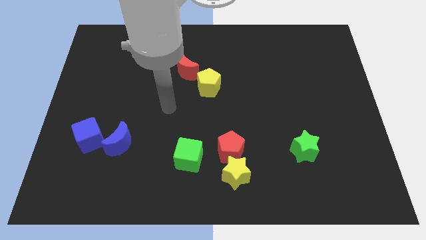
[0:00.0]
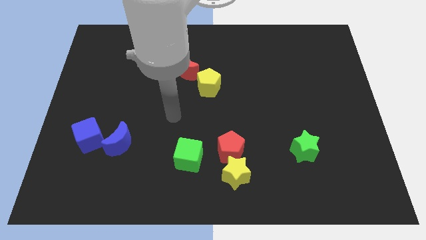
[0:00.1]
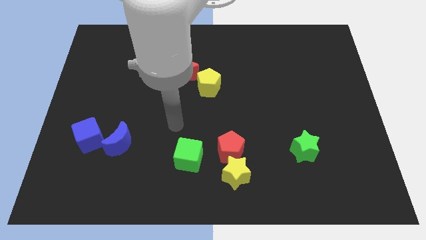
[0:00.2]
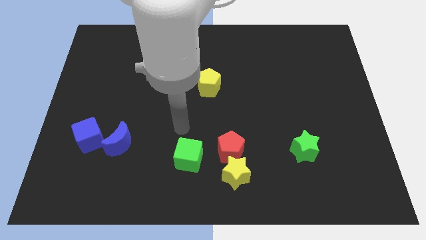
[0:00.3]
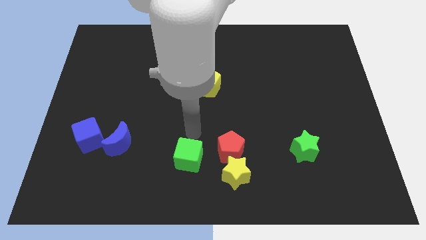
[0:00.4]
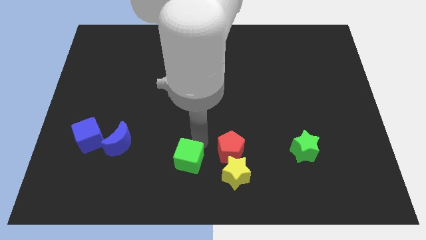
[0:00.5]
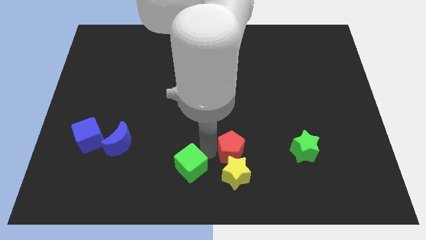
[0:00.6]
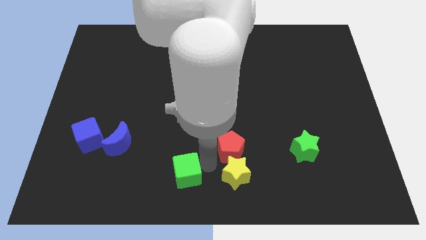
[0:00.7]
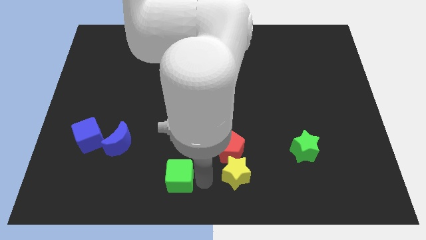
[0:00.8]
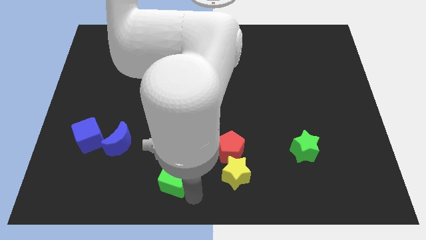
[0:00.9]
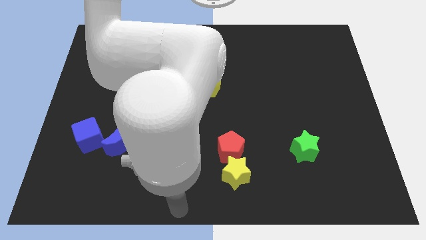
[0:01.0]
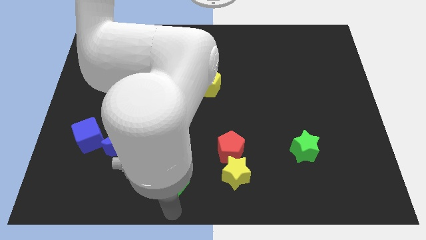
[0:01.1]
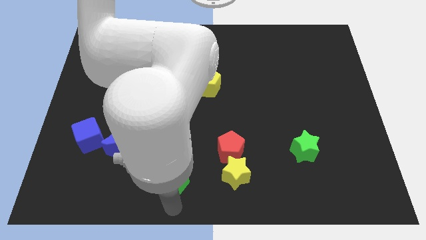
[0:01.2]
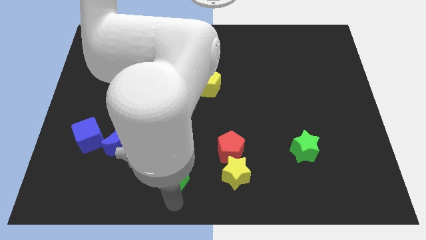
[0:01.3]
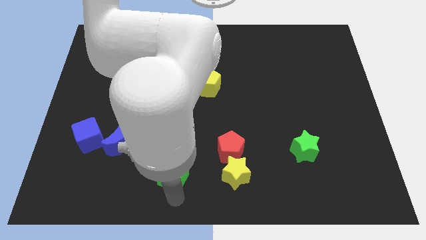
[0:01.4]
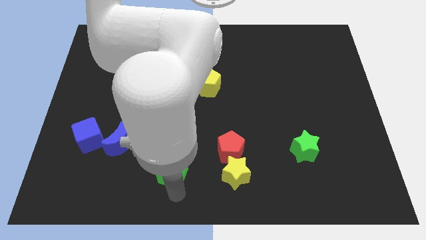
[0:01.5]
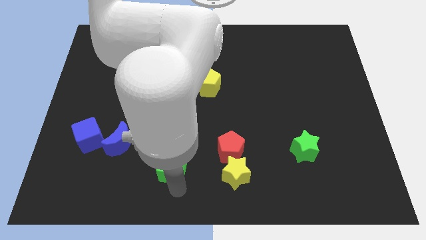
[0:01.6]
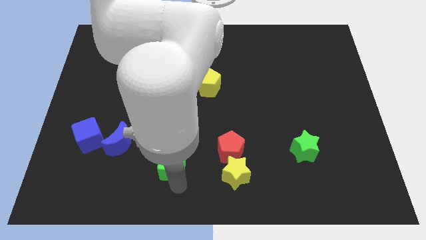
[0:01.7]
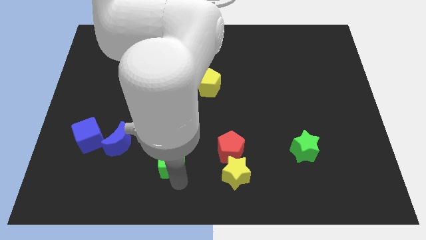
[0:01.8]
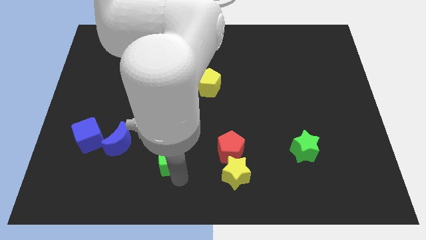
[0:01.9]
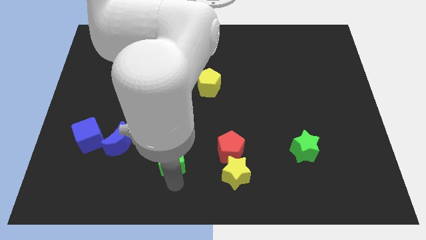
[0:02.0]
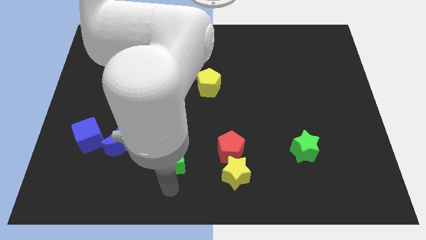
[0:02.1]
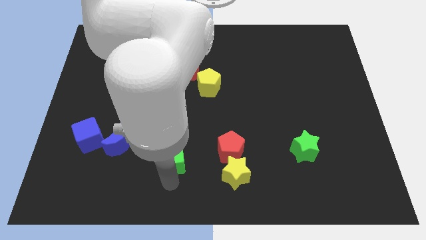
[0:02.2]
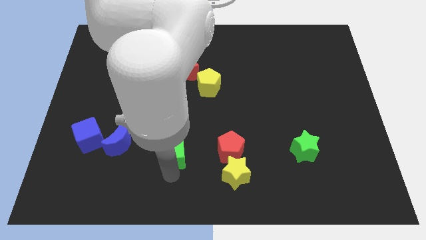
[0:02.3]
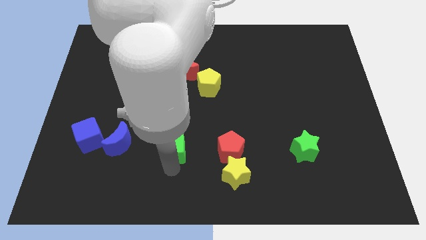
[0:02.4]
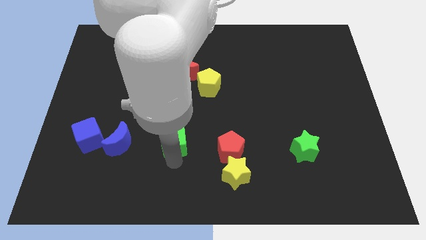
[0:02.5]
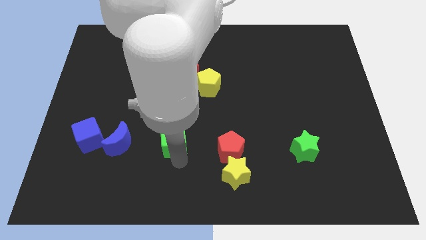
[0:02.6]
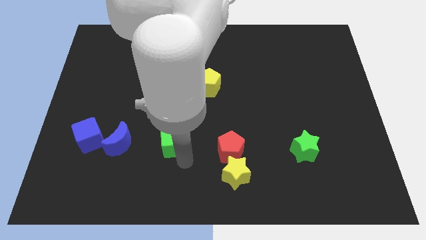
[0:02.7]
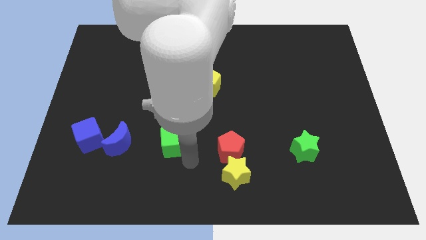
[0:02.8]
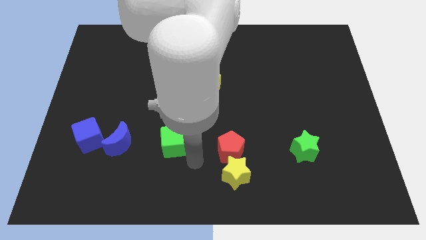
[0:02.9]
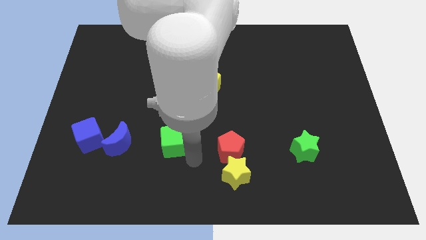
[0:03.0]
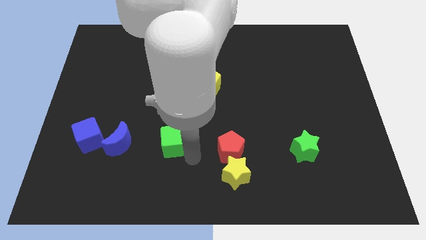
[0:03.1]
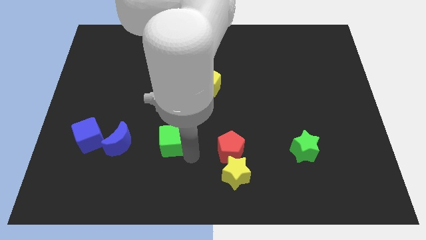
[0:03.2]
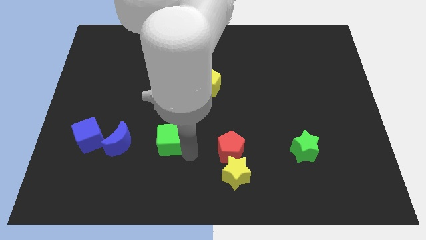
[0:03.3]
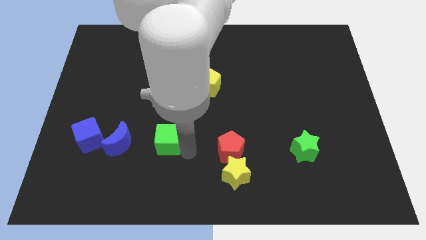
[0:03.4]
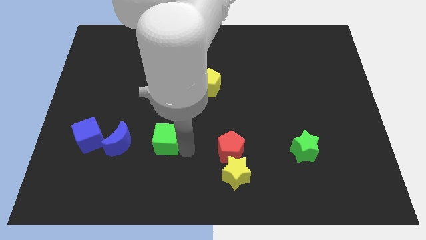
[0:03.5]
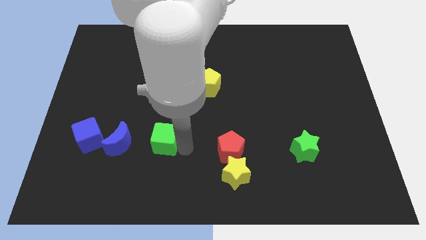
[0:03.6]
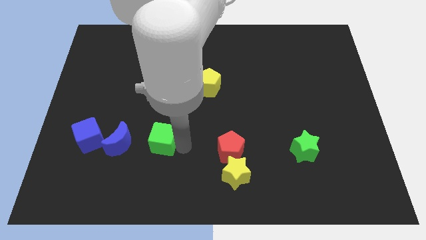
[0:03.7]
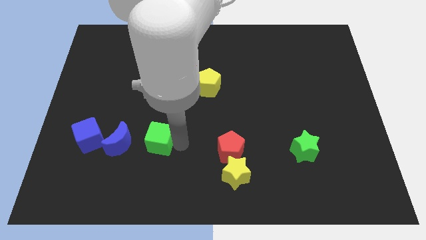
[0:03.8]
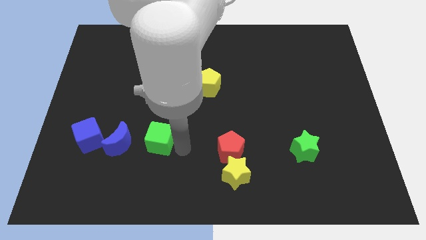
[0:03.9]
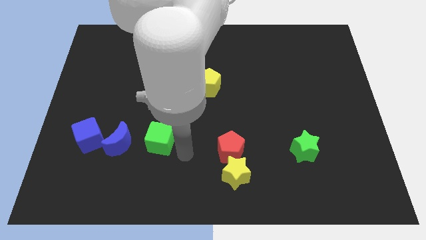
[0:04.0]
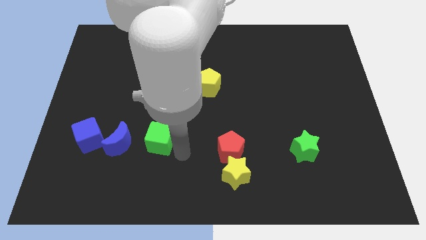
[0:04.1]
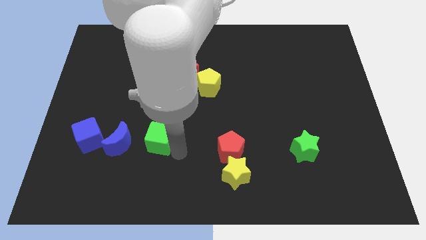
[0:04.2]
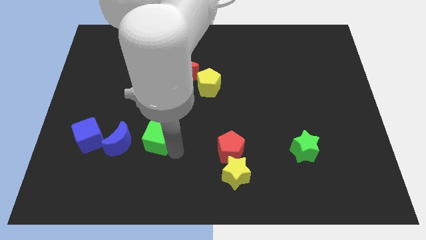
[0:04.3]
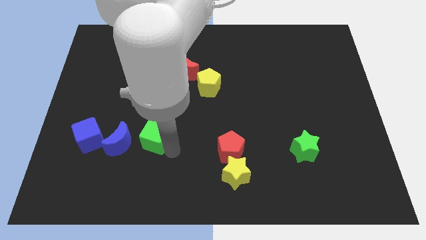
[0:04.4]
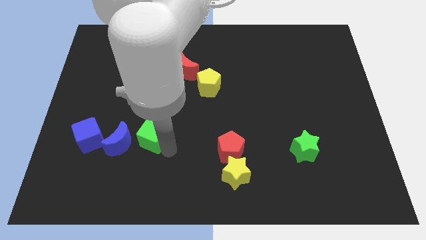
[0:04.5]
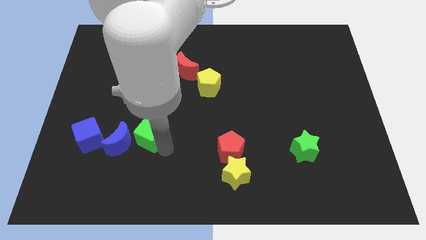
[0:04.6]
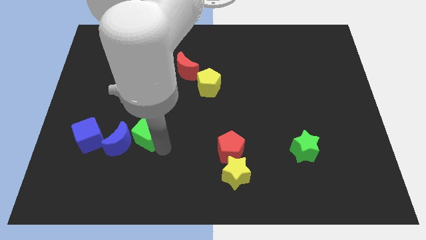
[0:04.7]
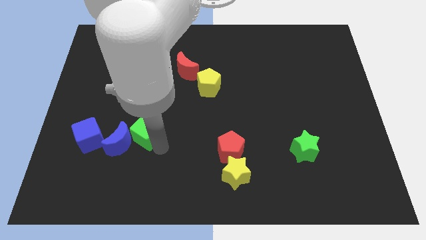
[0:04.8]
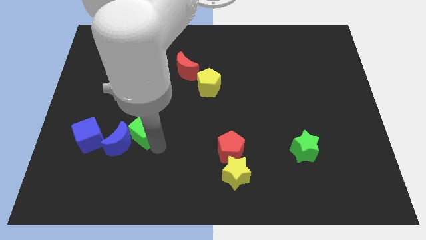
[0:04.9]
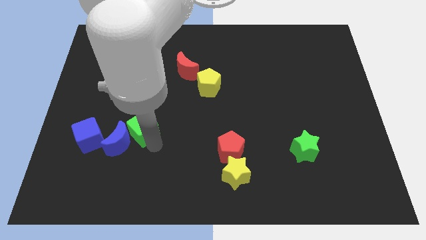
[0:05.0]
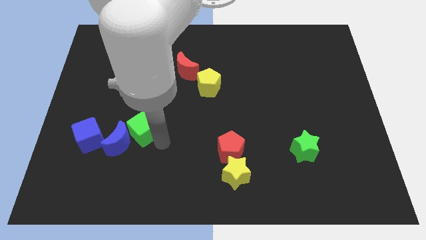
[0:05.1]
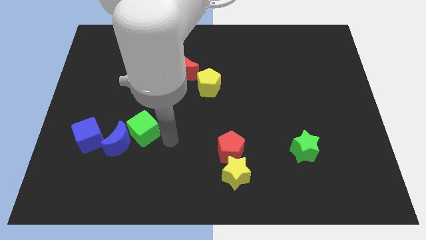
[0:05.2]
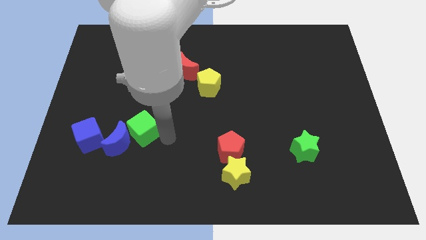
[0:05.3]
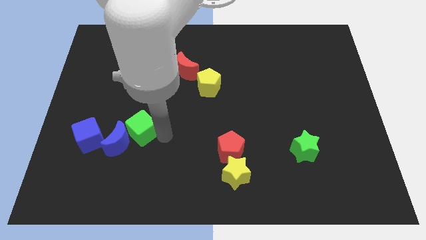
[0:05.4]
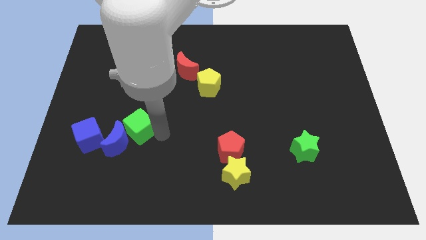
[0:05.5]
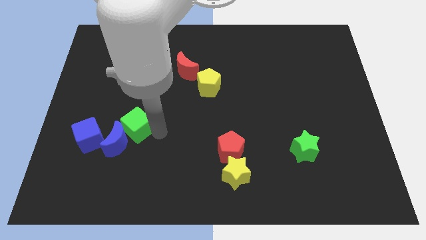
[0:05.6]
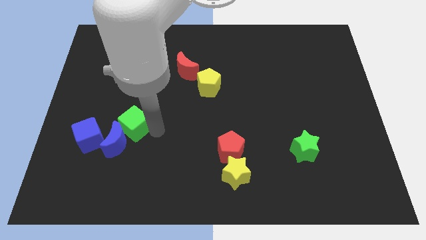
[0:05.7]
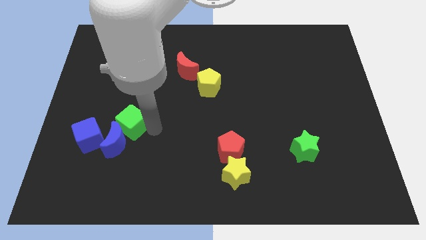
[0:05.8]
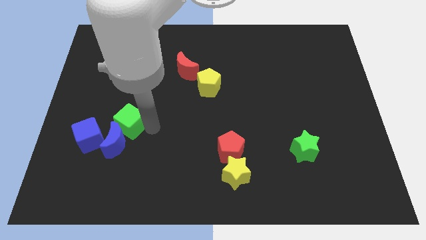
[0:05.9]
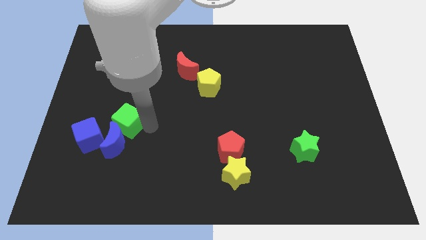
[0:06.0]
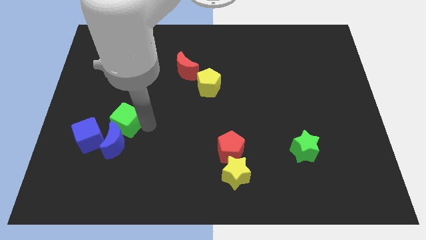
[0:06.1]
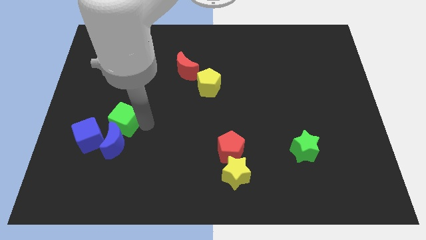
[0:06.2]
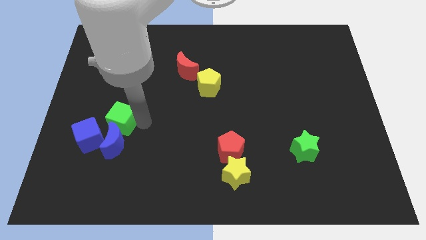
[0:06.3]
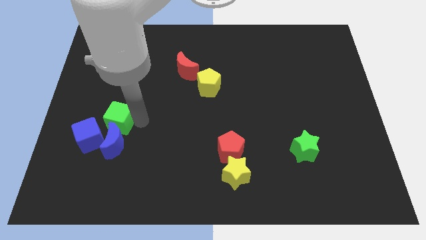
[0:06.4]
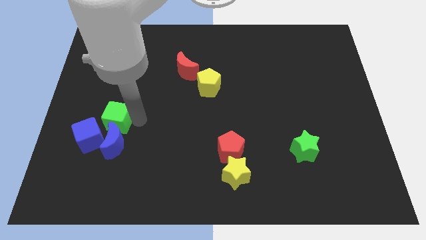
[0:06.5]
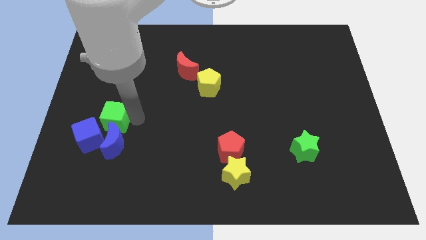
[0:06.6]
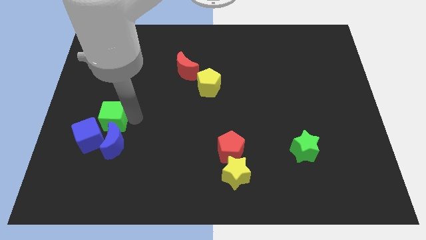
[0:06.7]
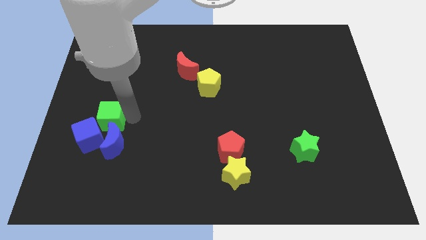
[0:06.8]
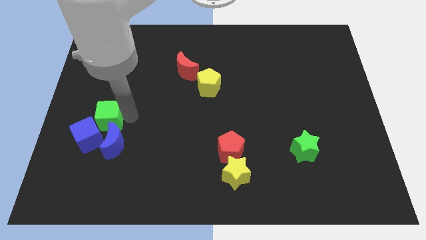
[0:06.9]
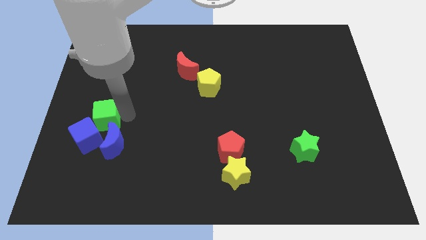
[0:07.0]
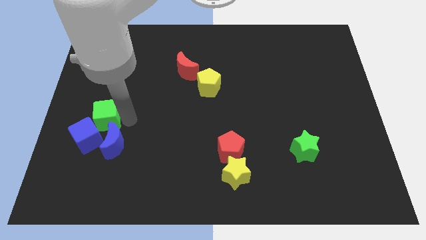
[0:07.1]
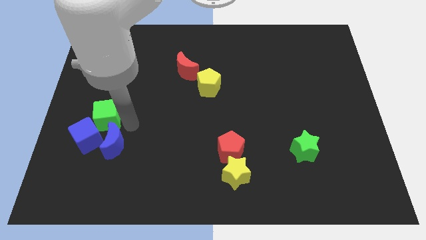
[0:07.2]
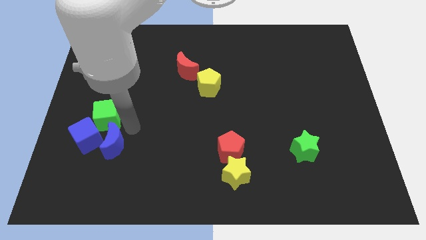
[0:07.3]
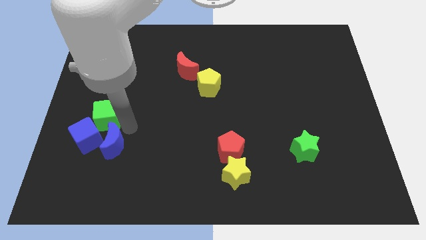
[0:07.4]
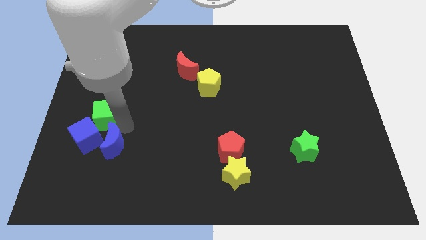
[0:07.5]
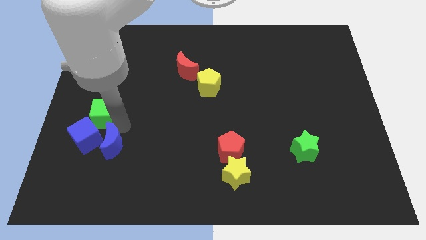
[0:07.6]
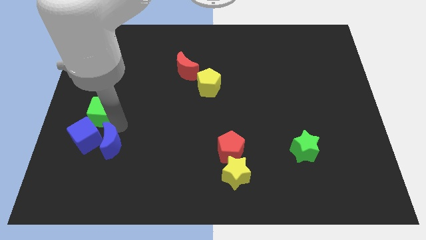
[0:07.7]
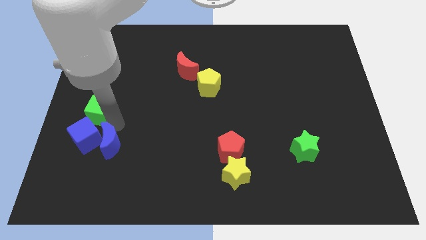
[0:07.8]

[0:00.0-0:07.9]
push the green cube to the center left
